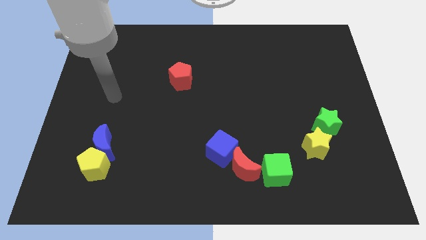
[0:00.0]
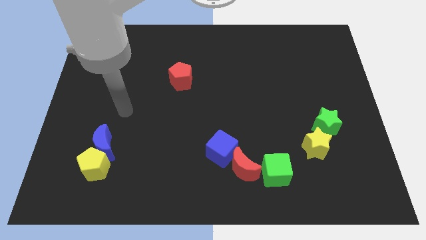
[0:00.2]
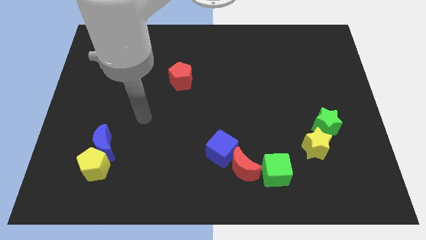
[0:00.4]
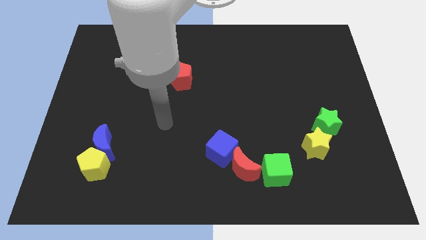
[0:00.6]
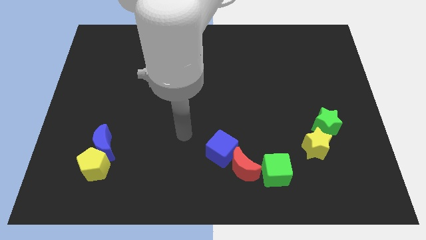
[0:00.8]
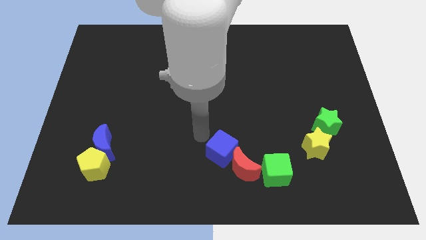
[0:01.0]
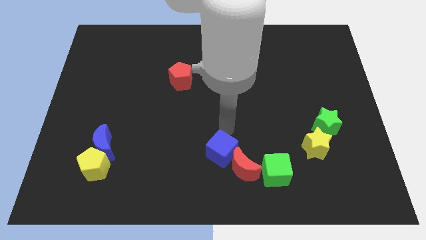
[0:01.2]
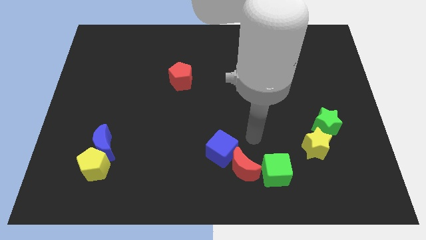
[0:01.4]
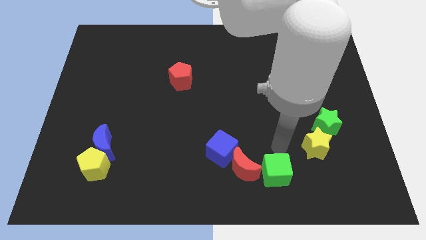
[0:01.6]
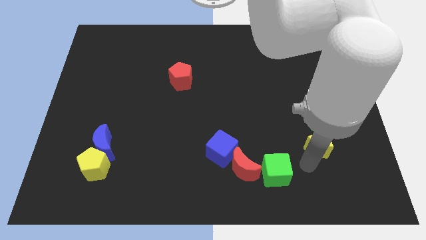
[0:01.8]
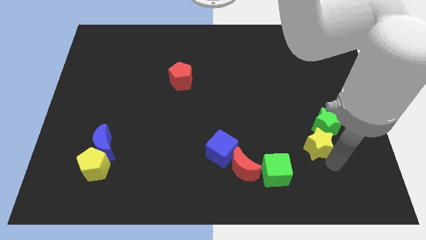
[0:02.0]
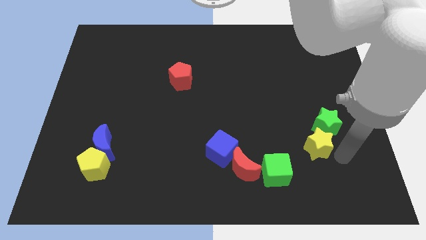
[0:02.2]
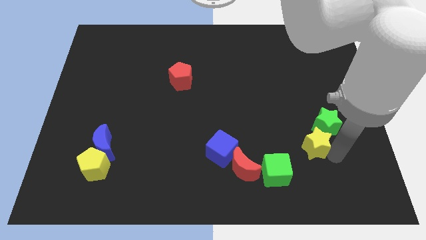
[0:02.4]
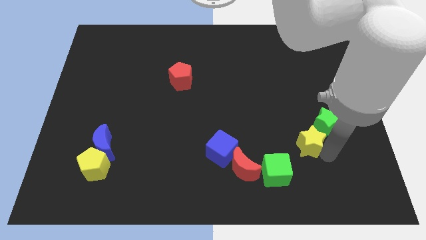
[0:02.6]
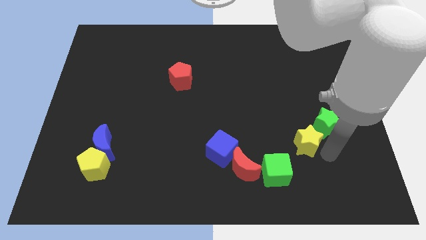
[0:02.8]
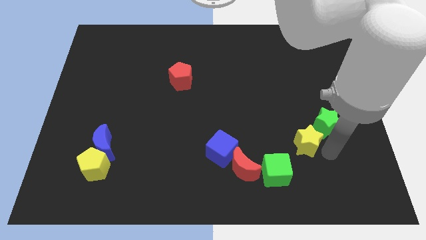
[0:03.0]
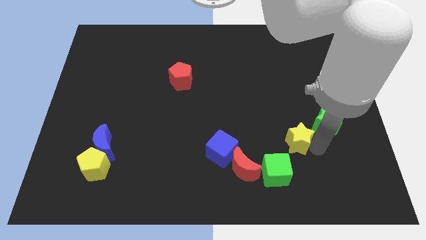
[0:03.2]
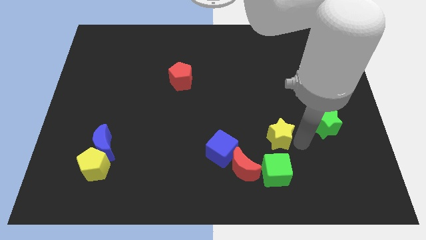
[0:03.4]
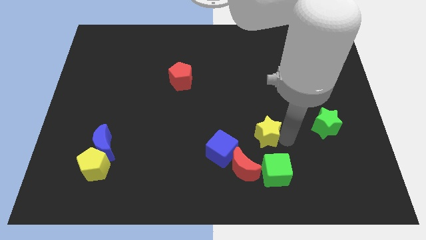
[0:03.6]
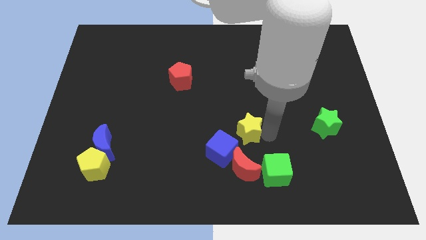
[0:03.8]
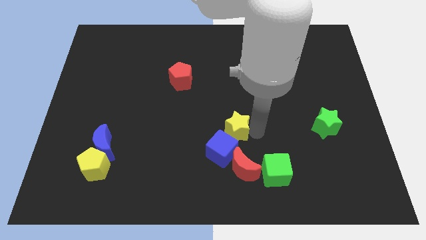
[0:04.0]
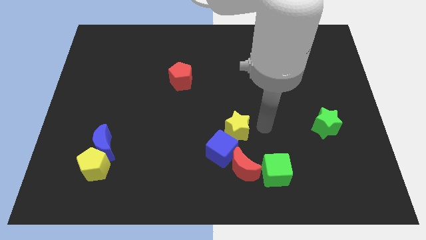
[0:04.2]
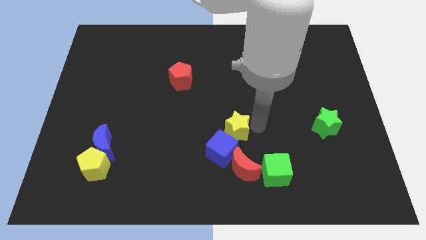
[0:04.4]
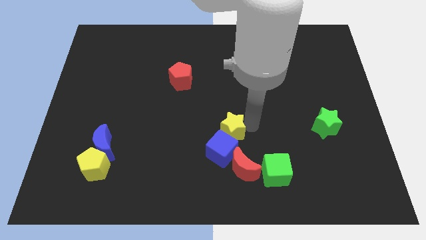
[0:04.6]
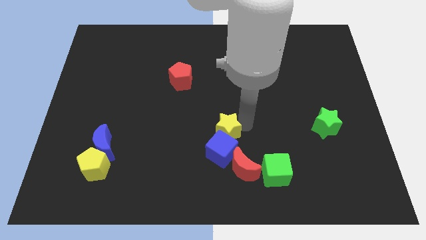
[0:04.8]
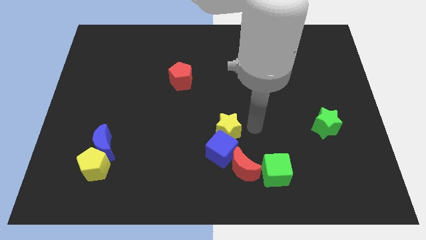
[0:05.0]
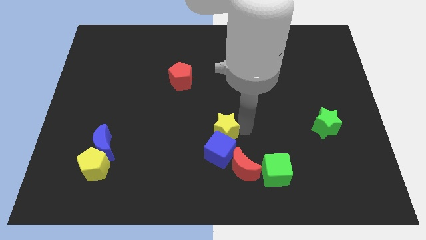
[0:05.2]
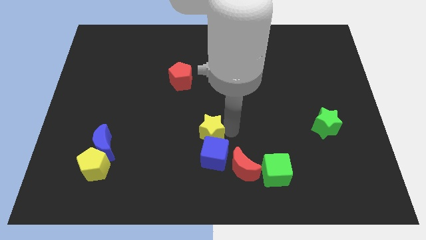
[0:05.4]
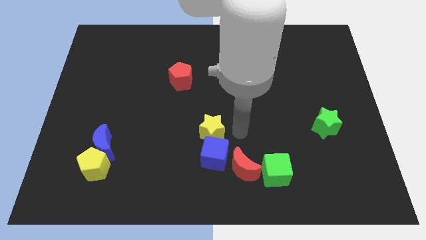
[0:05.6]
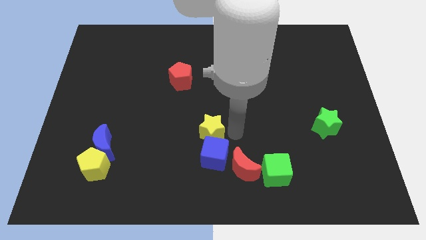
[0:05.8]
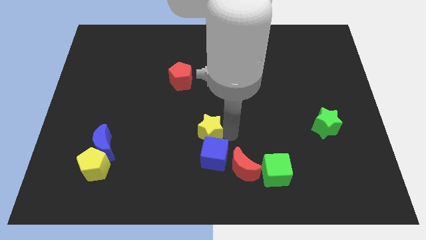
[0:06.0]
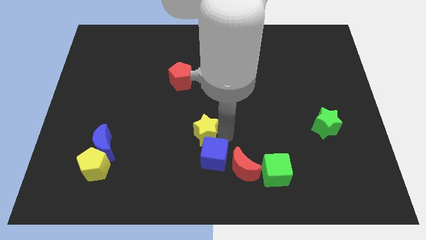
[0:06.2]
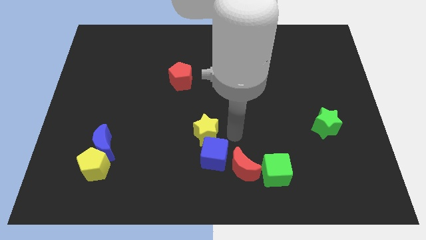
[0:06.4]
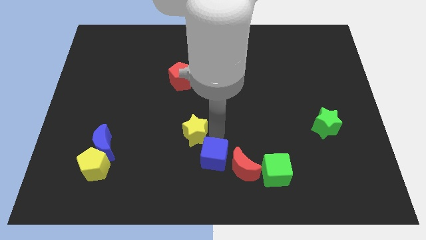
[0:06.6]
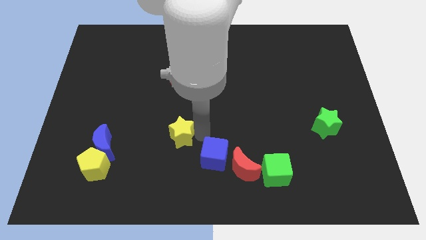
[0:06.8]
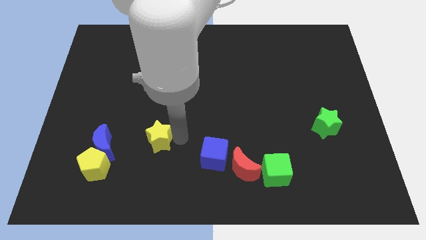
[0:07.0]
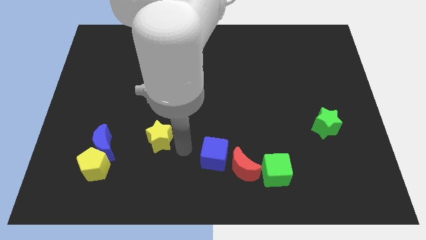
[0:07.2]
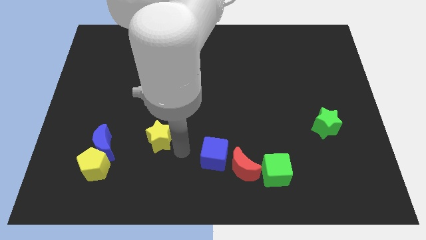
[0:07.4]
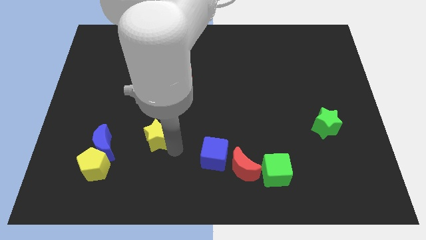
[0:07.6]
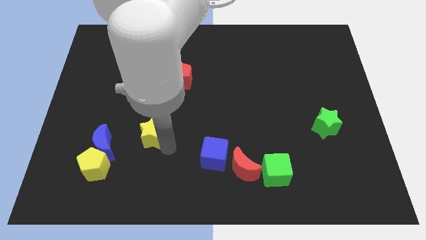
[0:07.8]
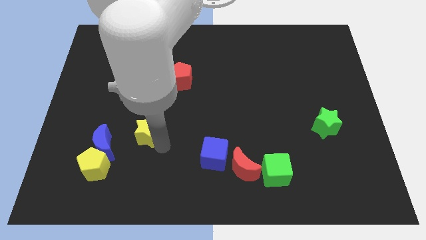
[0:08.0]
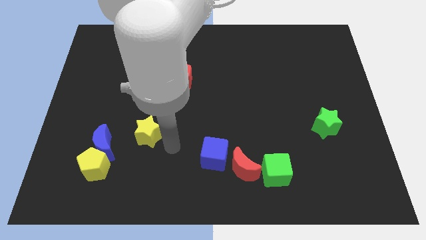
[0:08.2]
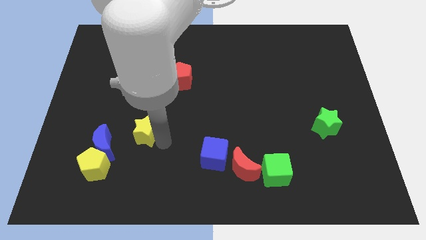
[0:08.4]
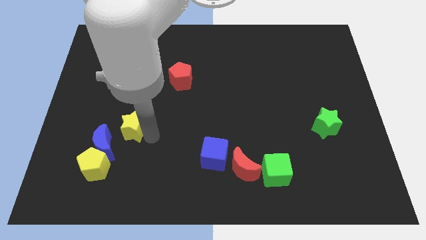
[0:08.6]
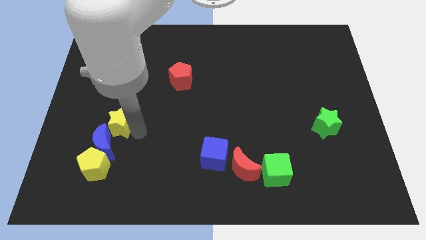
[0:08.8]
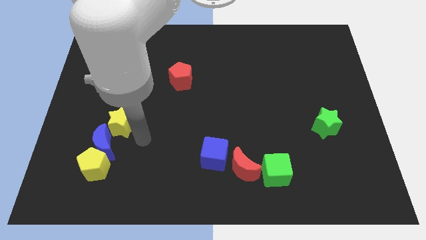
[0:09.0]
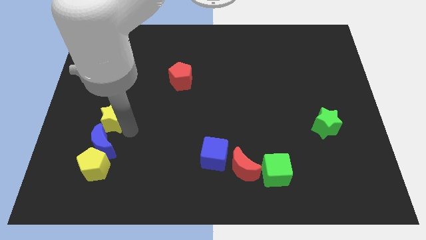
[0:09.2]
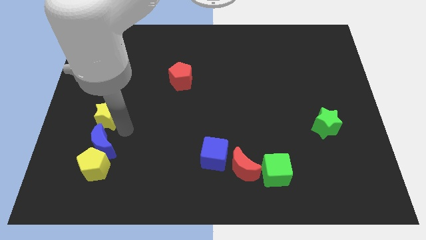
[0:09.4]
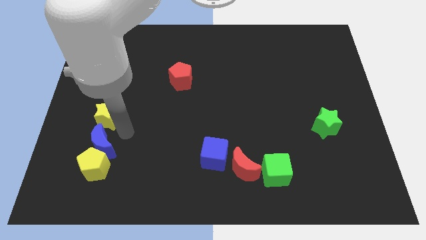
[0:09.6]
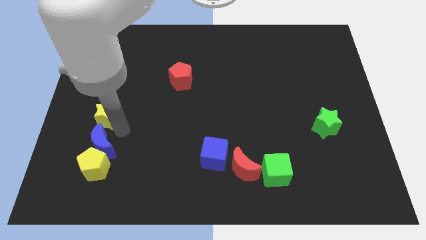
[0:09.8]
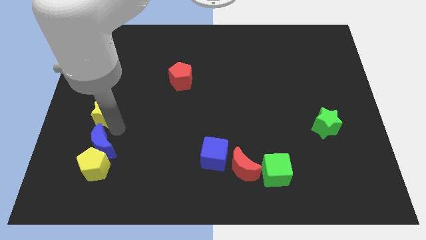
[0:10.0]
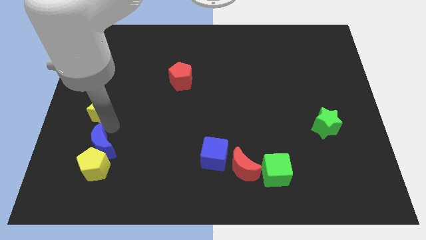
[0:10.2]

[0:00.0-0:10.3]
put the yellow star to the left side of the board

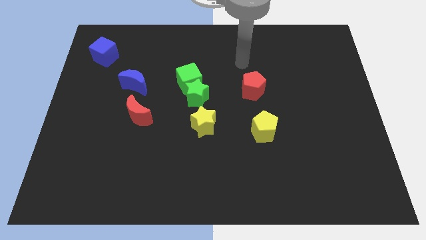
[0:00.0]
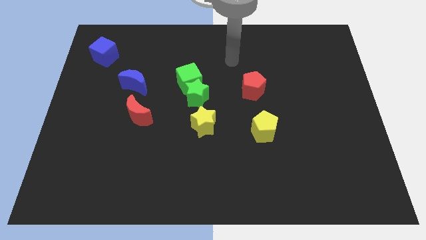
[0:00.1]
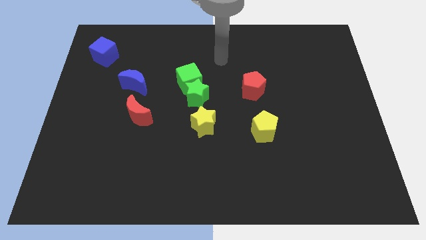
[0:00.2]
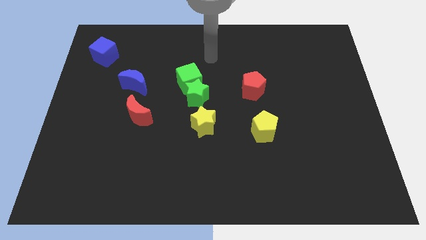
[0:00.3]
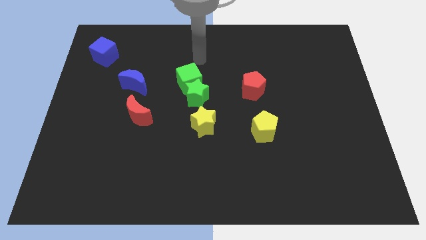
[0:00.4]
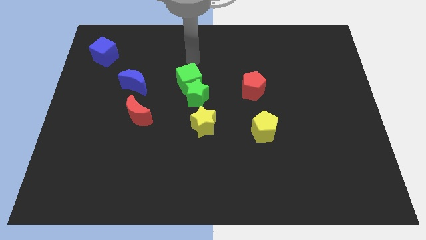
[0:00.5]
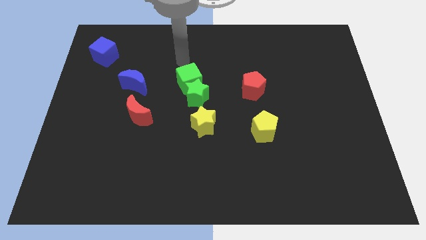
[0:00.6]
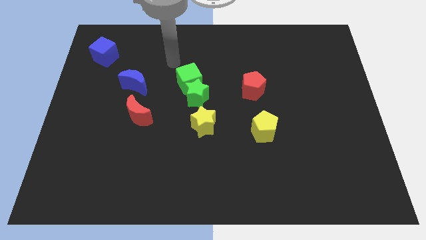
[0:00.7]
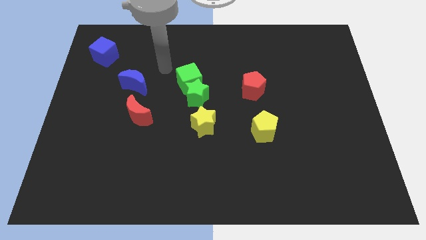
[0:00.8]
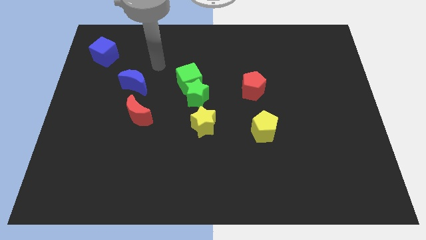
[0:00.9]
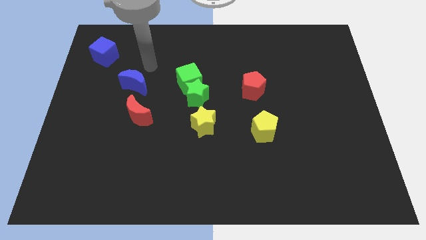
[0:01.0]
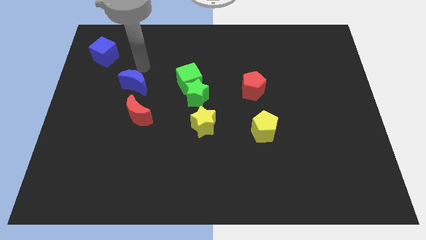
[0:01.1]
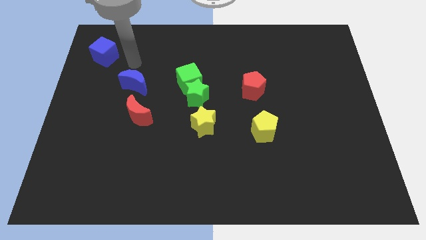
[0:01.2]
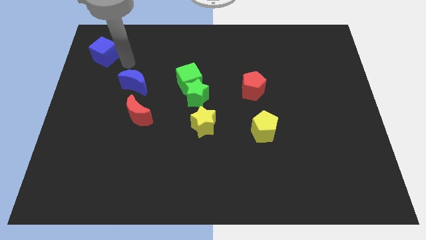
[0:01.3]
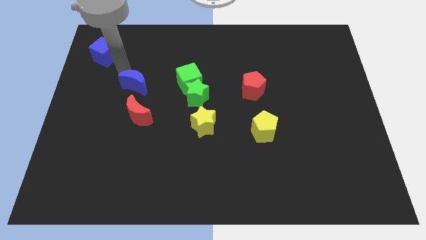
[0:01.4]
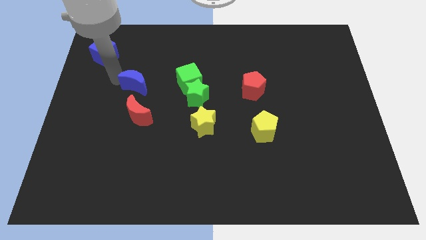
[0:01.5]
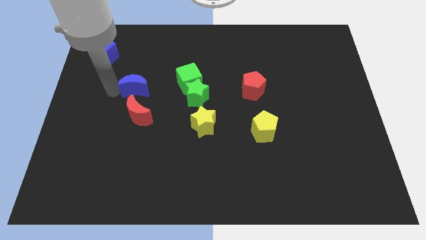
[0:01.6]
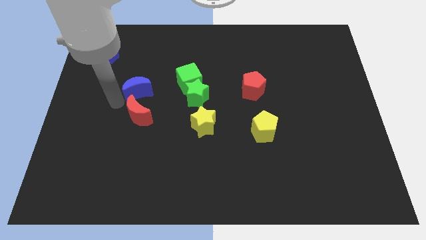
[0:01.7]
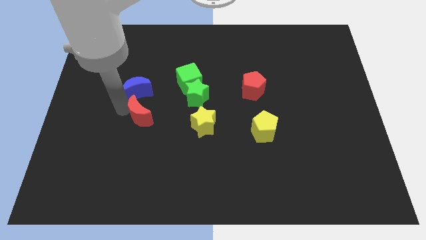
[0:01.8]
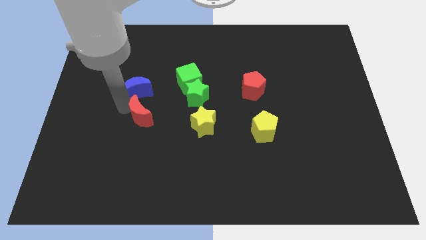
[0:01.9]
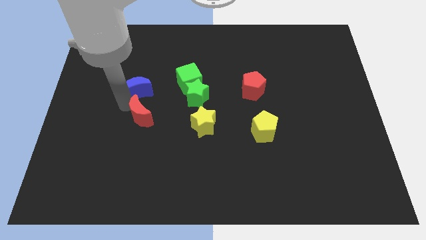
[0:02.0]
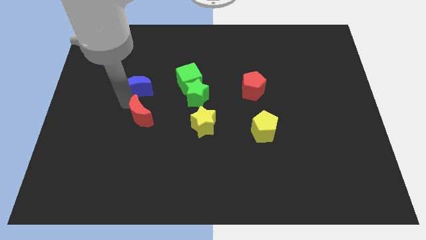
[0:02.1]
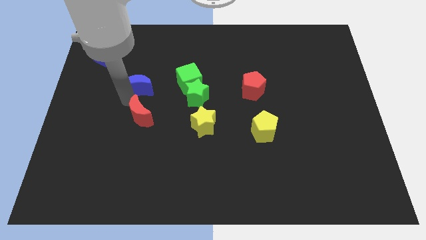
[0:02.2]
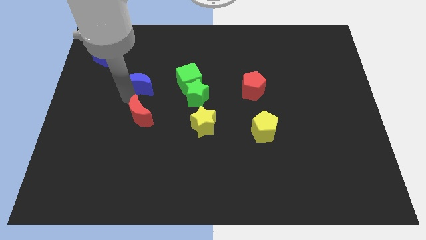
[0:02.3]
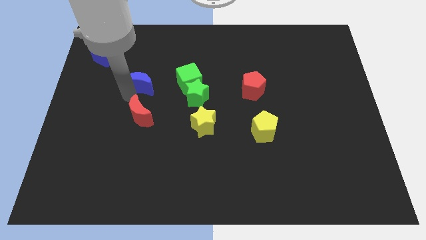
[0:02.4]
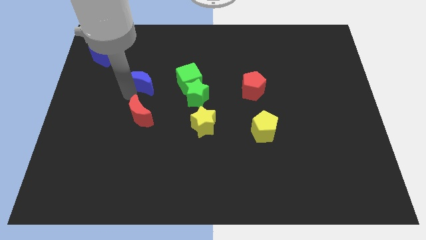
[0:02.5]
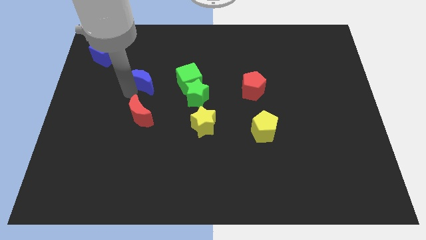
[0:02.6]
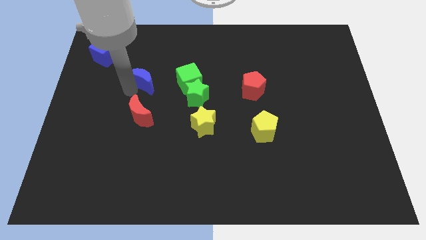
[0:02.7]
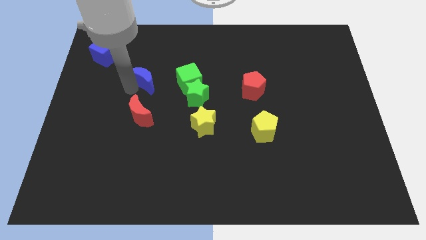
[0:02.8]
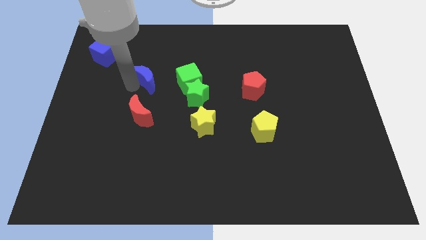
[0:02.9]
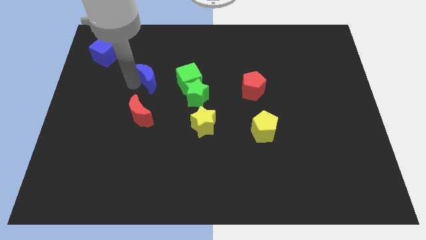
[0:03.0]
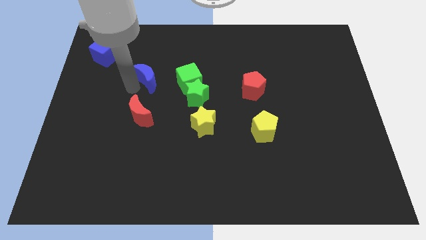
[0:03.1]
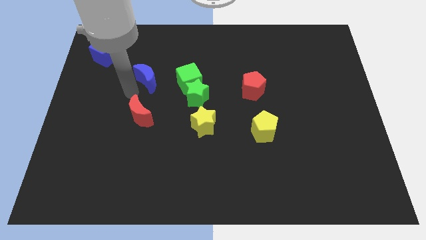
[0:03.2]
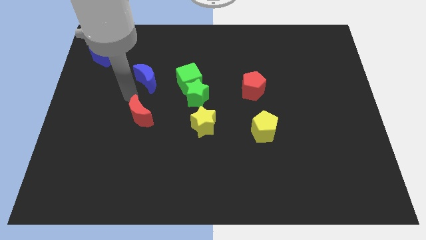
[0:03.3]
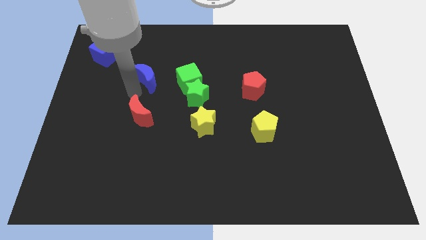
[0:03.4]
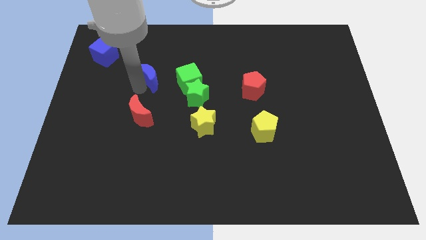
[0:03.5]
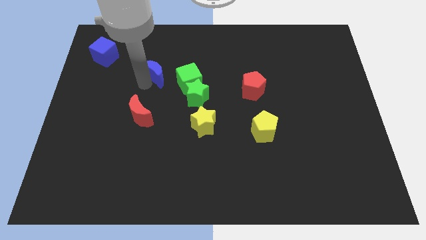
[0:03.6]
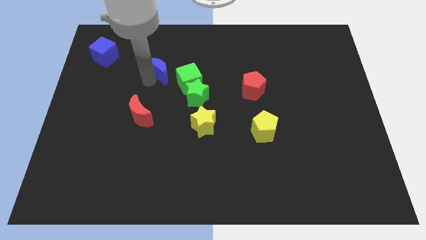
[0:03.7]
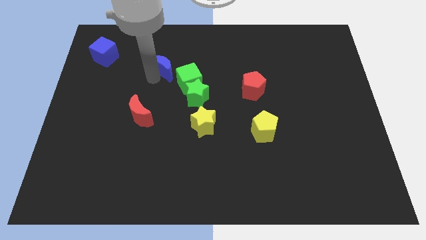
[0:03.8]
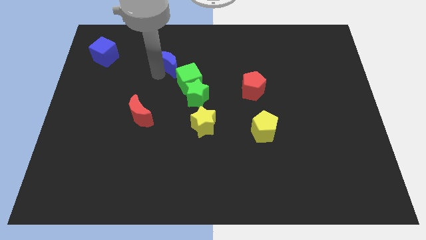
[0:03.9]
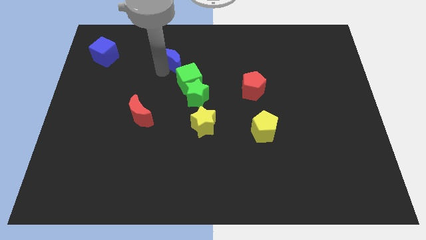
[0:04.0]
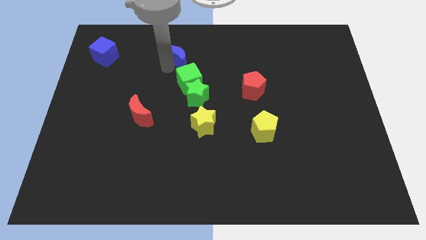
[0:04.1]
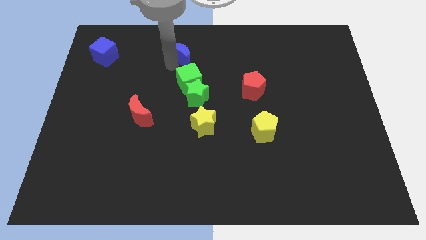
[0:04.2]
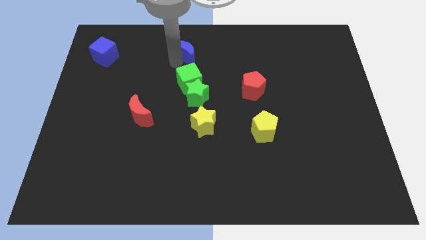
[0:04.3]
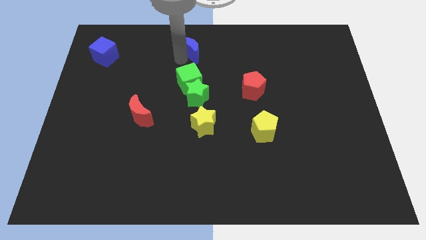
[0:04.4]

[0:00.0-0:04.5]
put the blue moon to the towards your base
